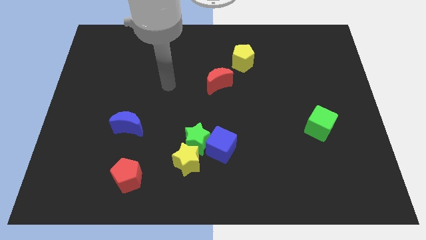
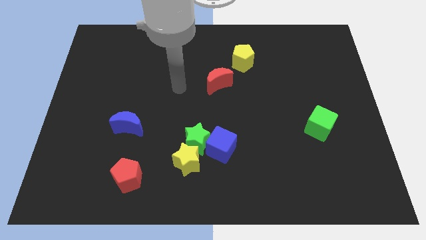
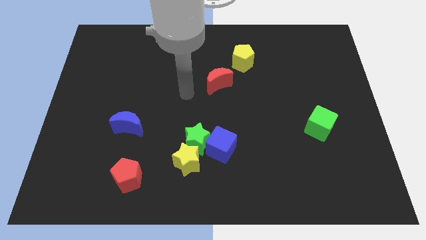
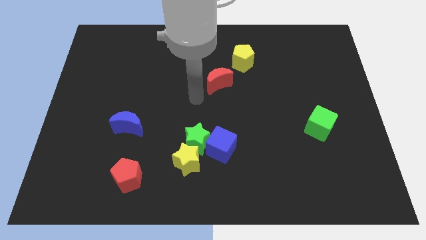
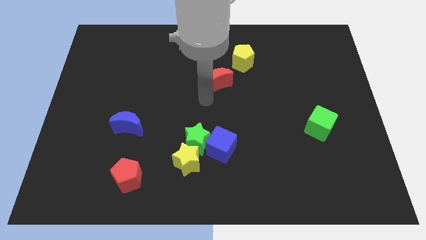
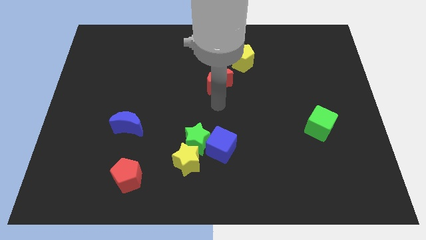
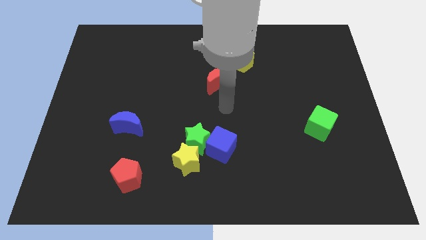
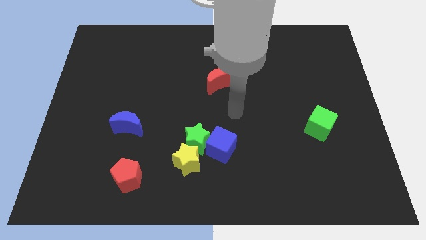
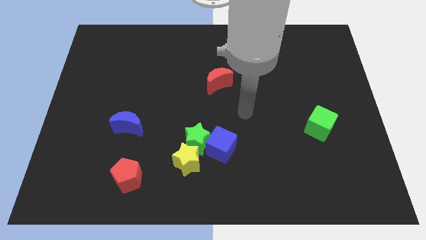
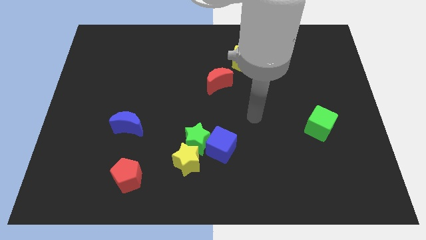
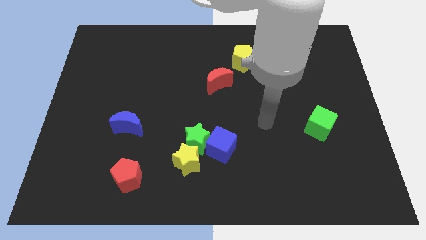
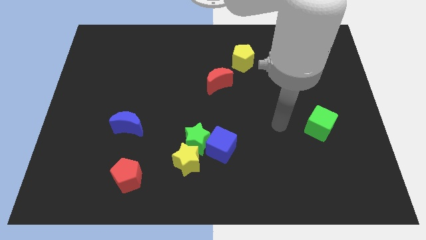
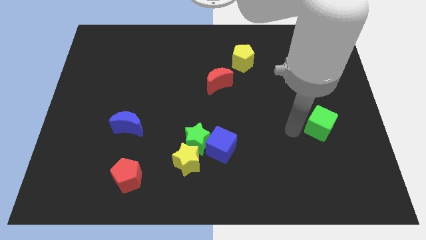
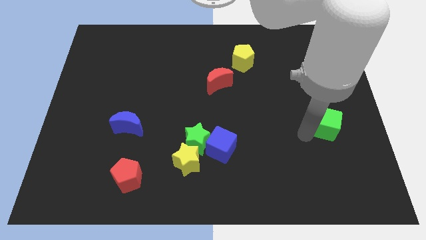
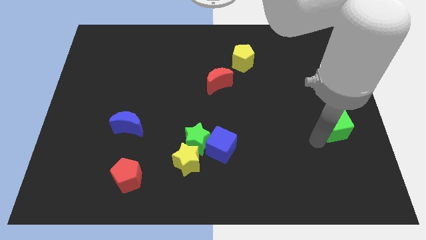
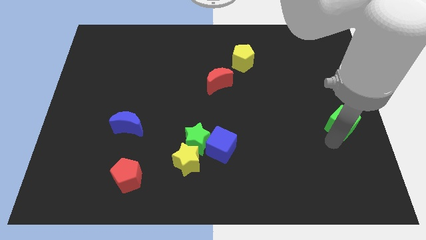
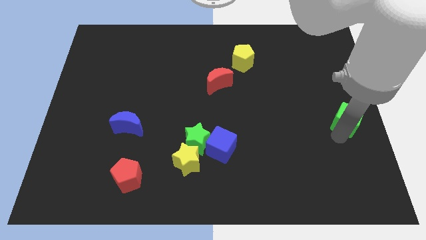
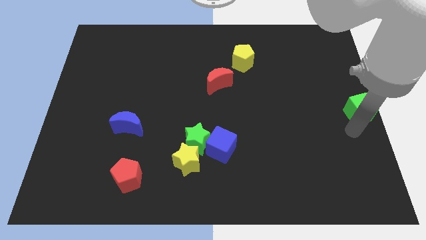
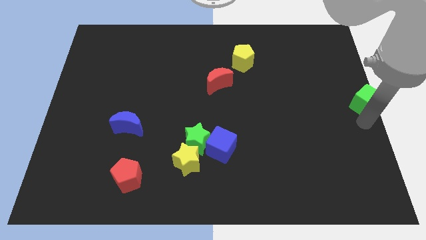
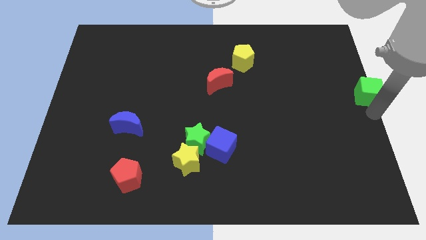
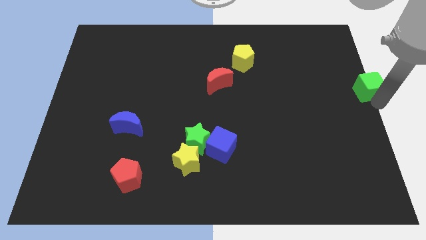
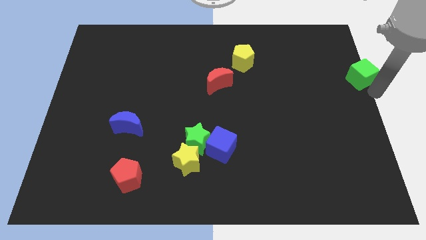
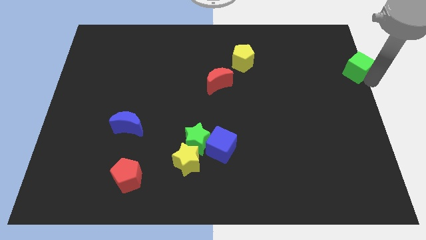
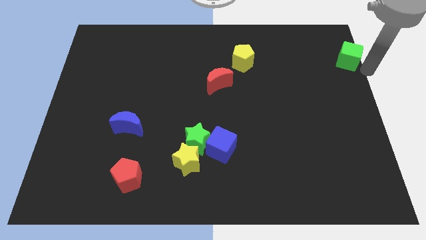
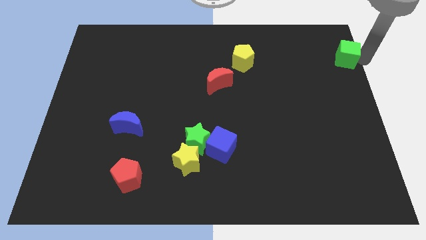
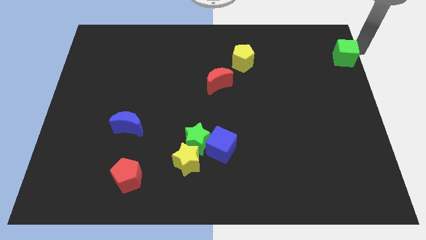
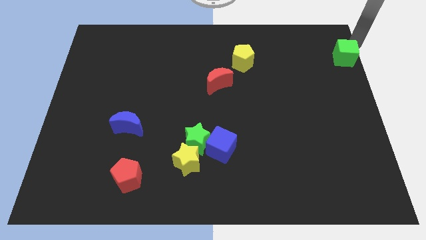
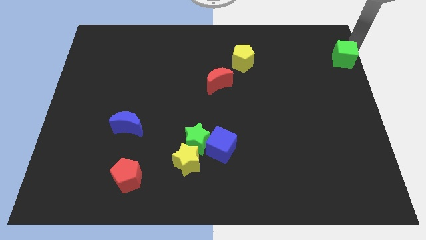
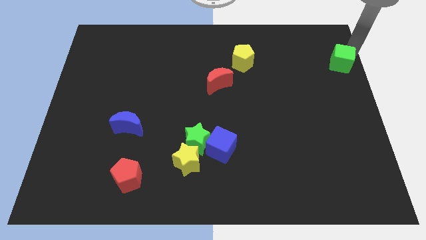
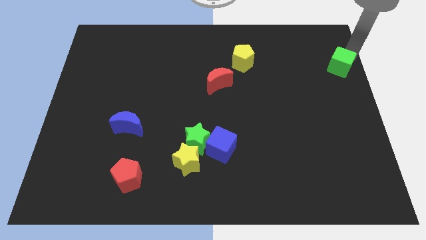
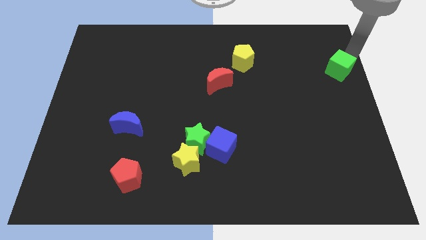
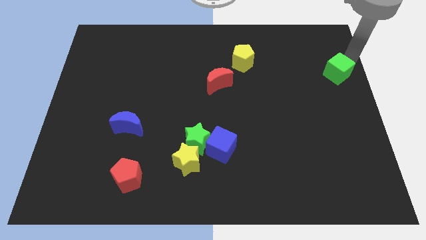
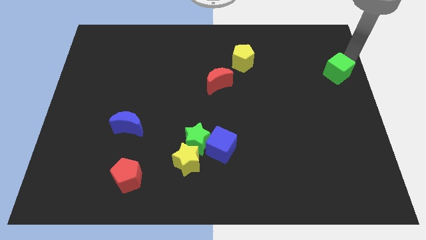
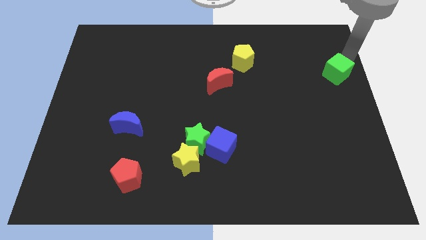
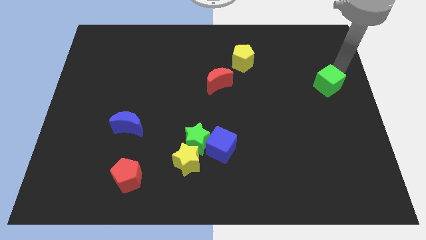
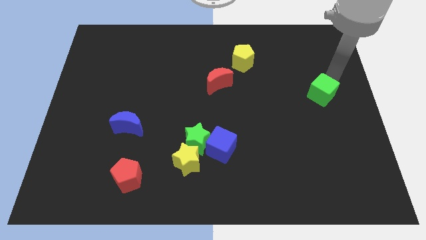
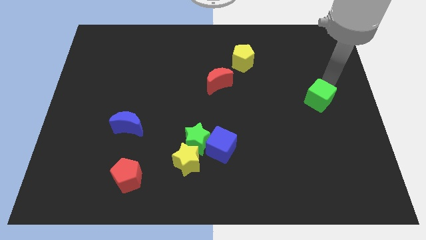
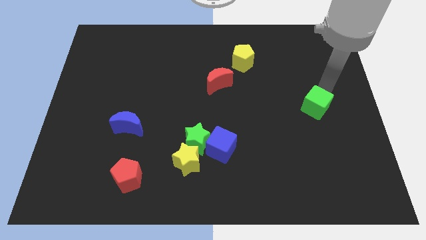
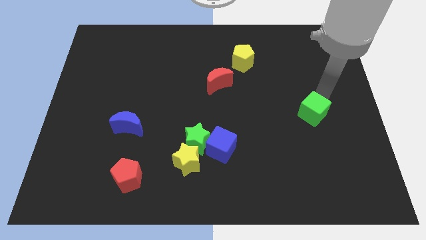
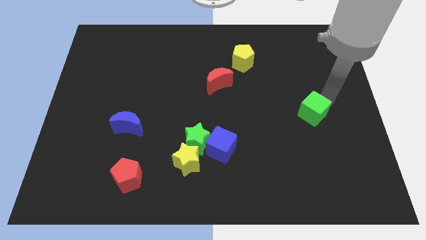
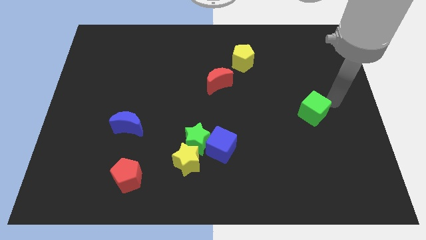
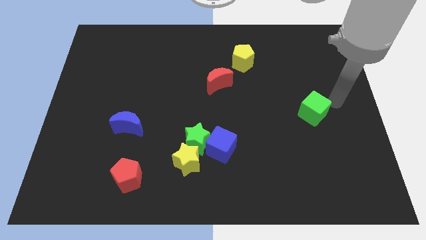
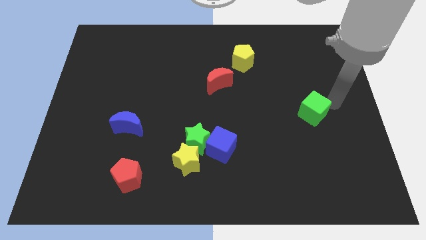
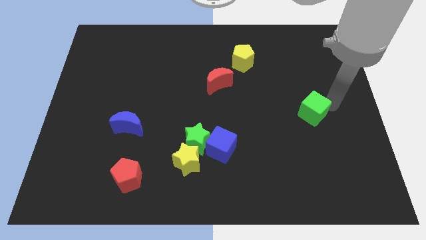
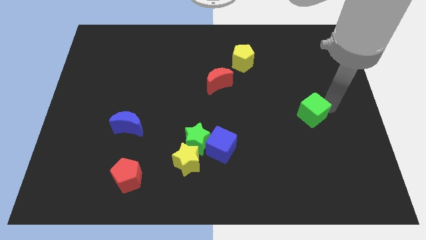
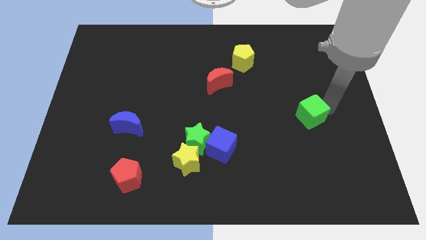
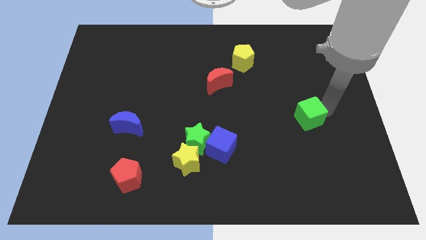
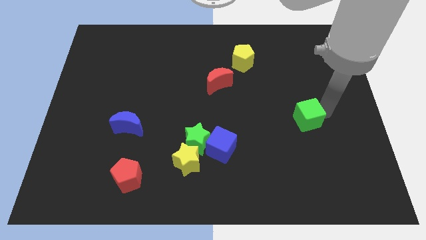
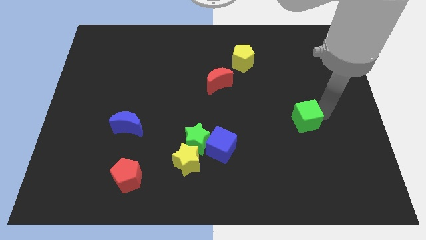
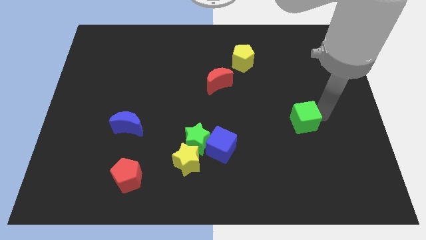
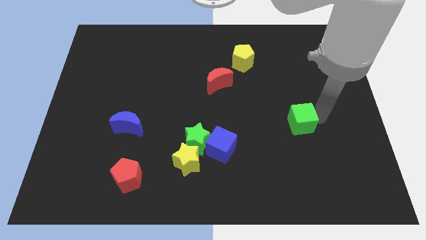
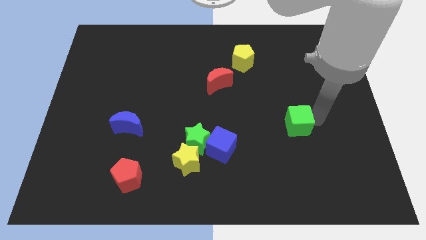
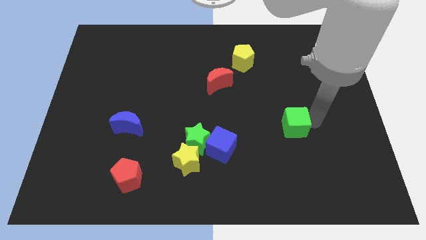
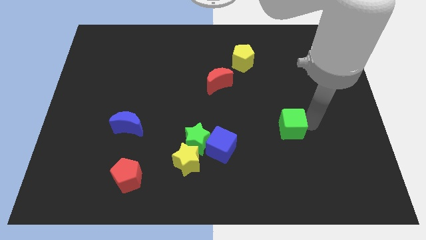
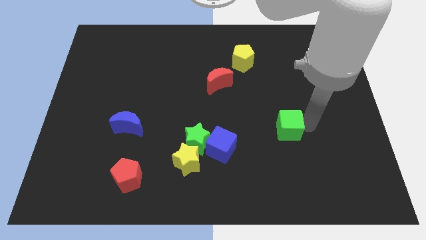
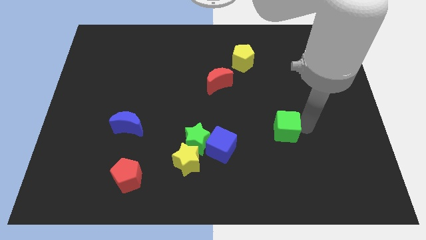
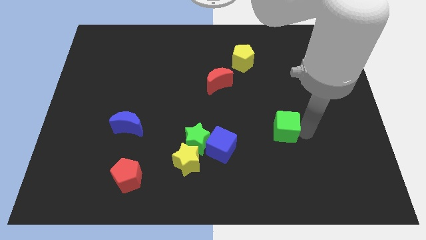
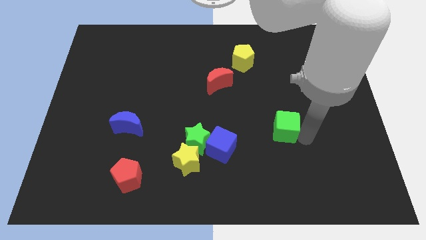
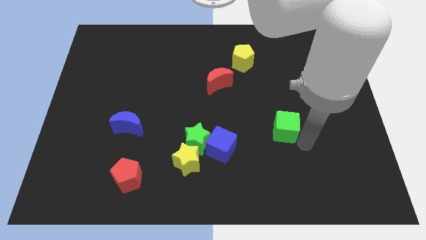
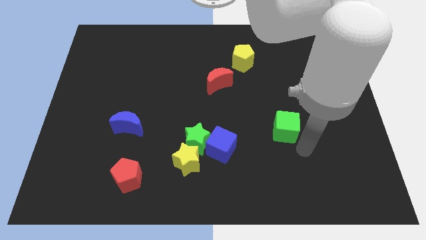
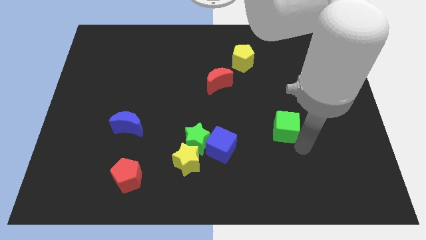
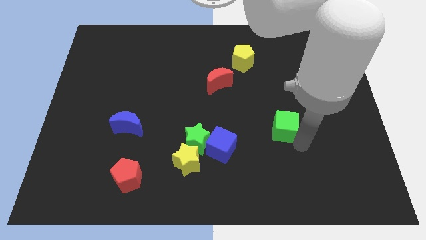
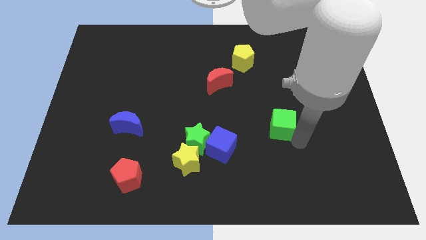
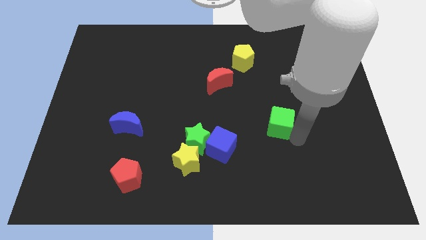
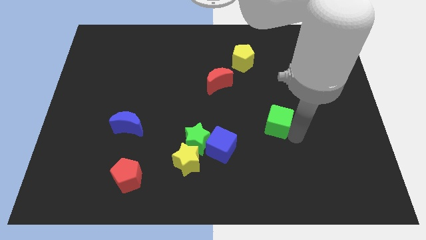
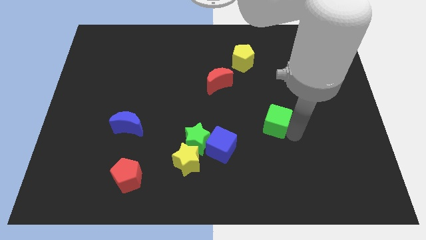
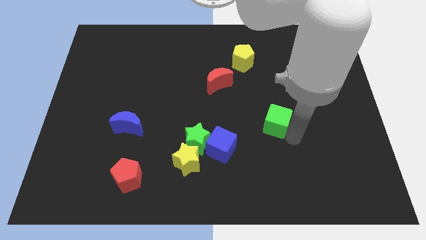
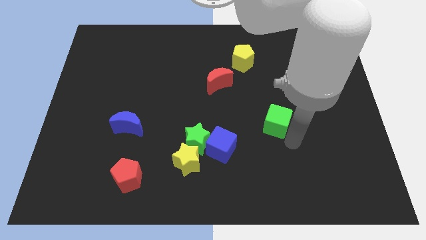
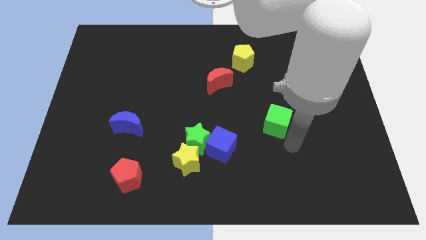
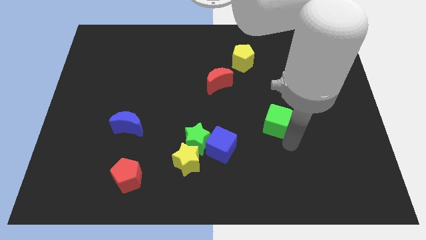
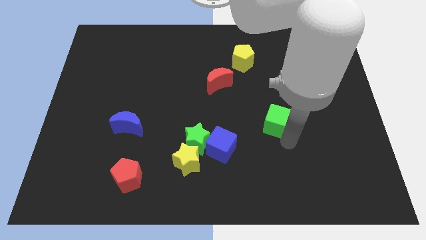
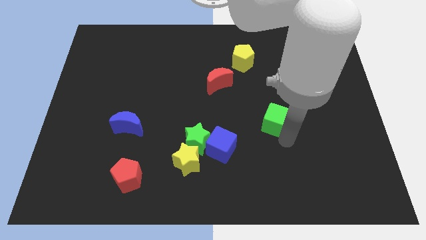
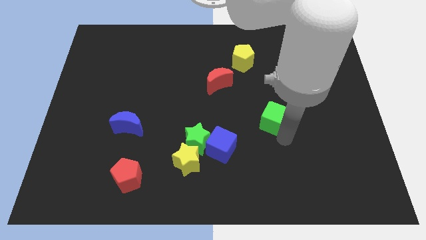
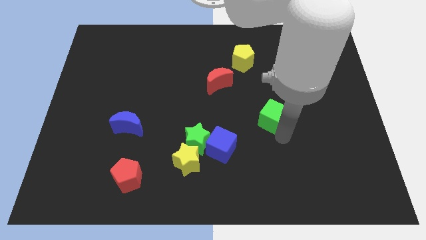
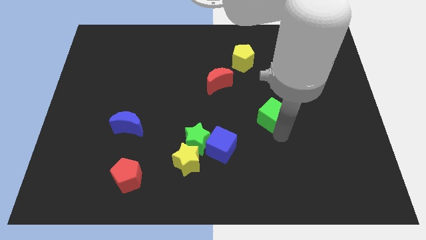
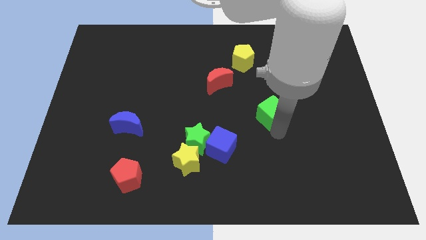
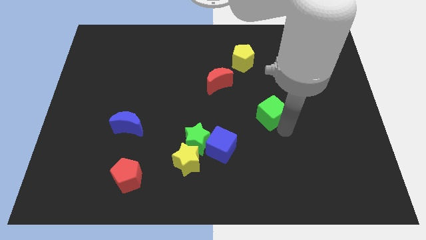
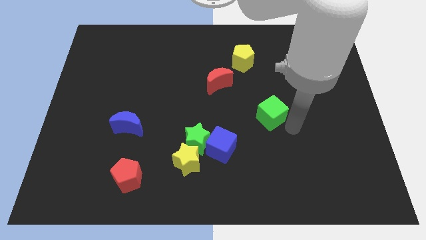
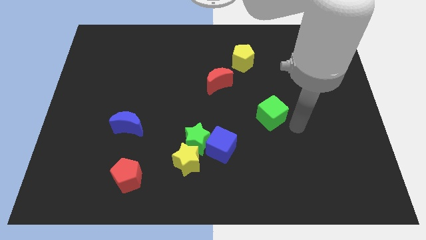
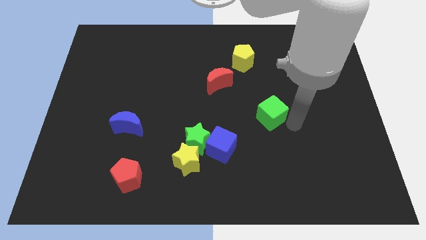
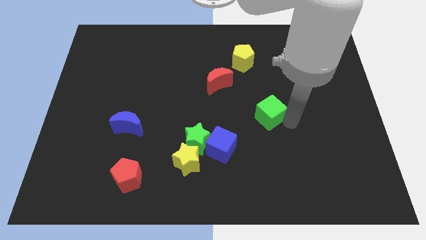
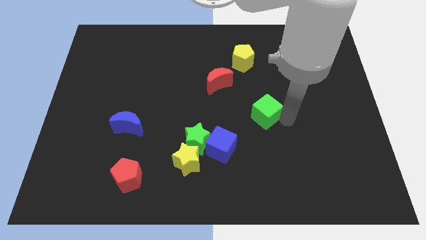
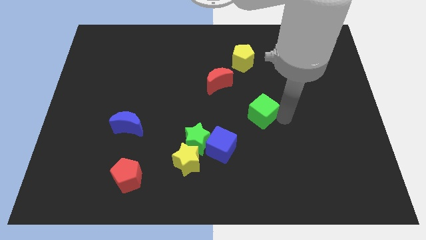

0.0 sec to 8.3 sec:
put the green cube to the center of the board
